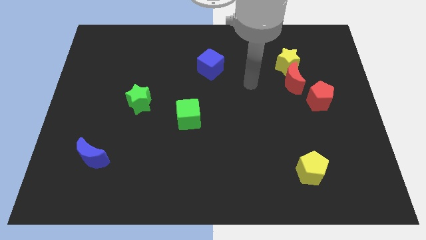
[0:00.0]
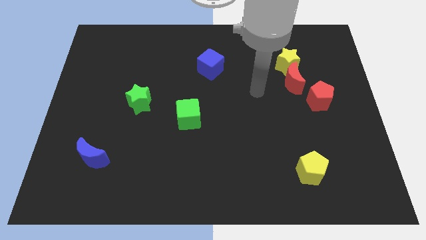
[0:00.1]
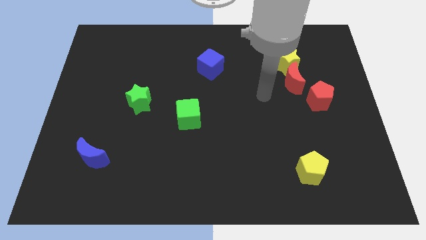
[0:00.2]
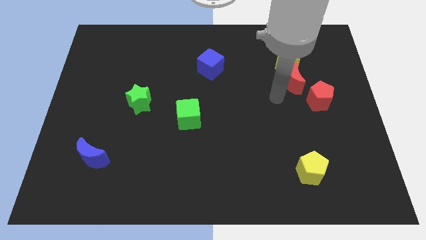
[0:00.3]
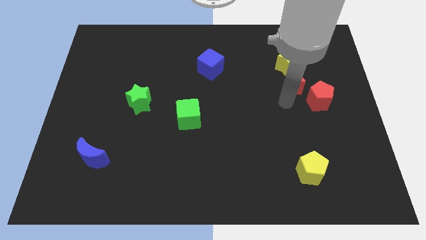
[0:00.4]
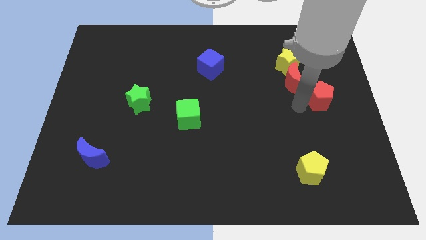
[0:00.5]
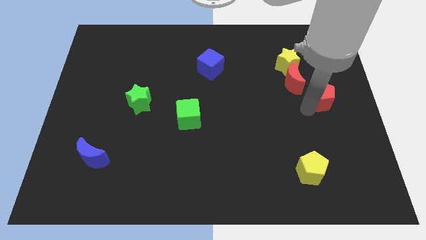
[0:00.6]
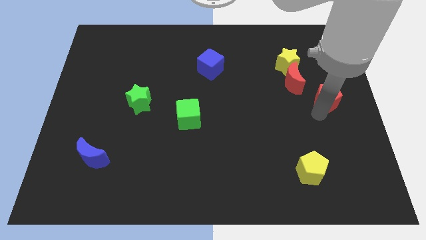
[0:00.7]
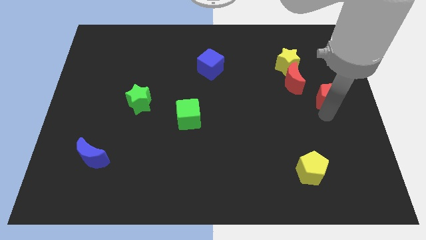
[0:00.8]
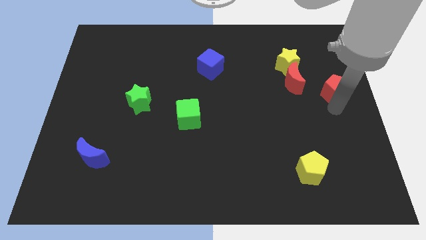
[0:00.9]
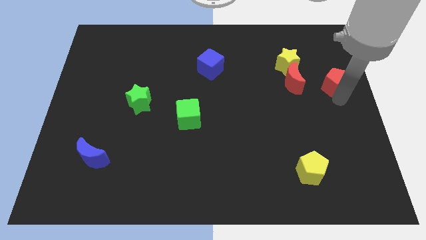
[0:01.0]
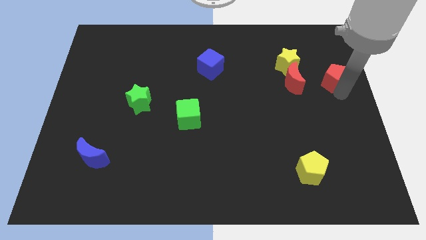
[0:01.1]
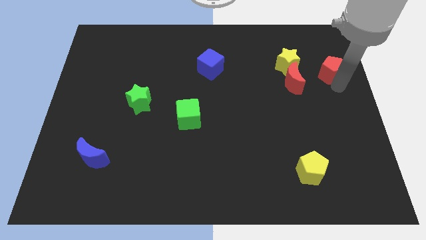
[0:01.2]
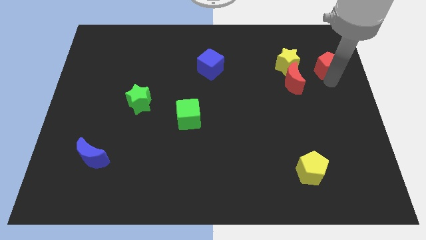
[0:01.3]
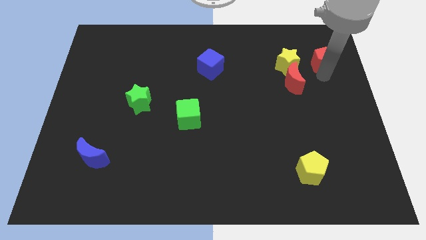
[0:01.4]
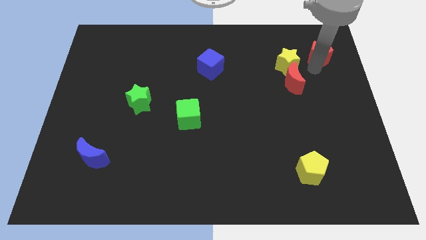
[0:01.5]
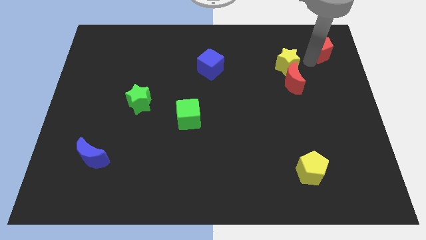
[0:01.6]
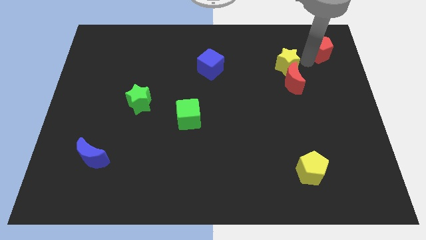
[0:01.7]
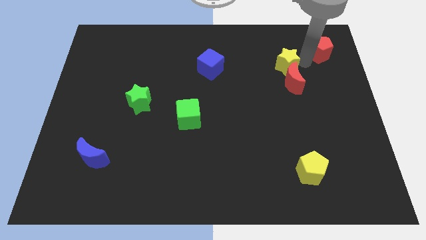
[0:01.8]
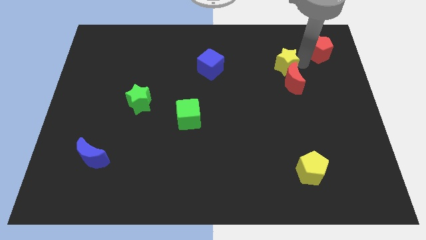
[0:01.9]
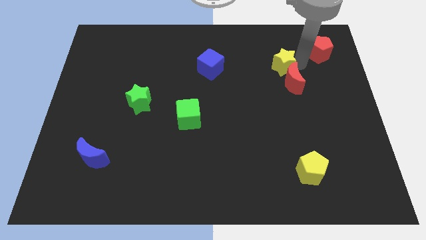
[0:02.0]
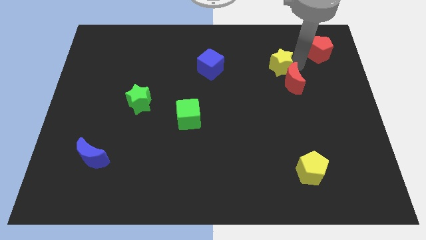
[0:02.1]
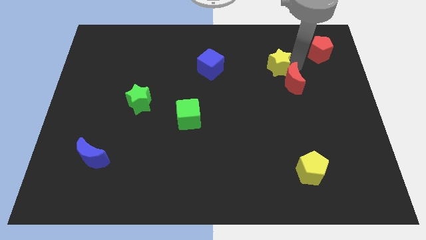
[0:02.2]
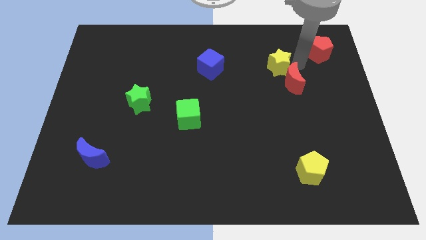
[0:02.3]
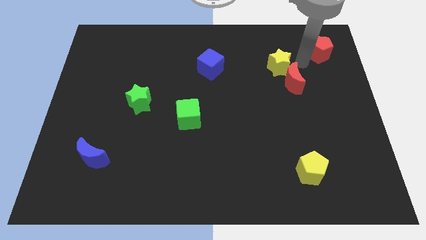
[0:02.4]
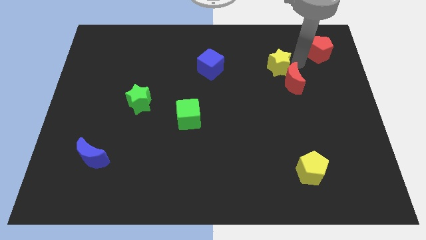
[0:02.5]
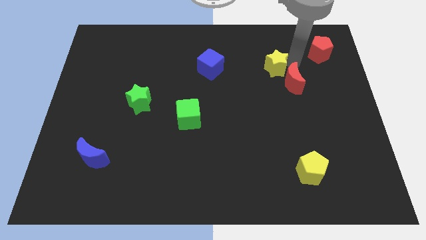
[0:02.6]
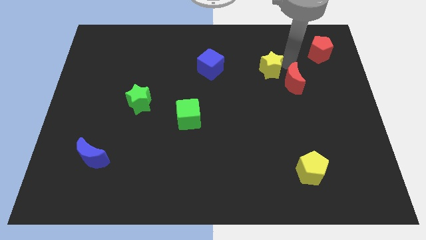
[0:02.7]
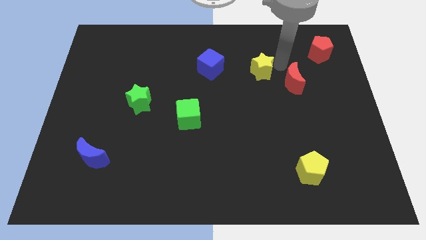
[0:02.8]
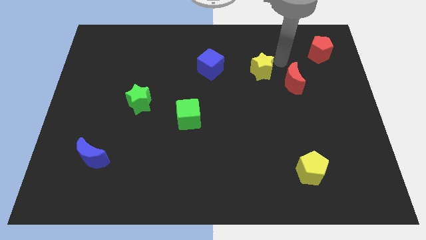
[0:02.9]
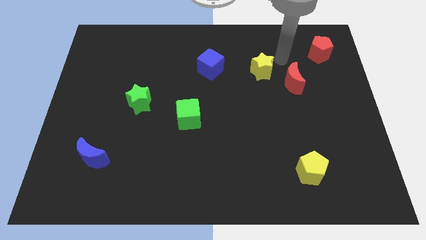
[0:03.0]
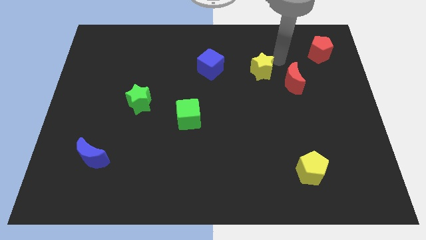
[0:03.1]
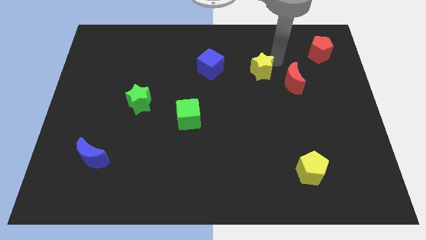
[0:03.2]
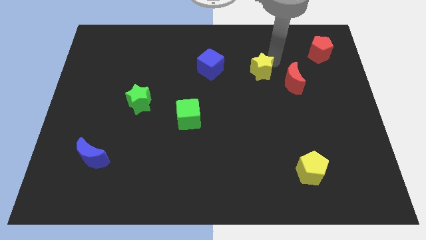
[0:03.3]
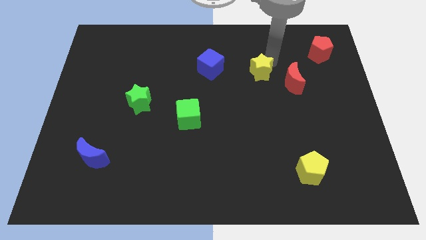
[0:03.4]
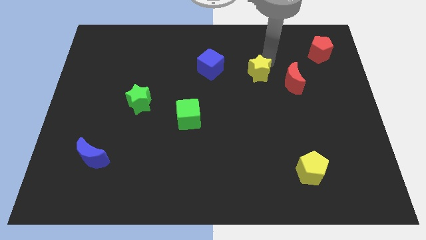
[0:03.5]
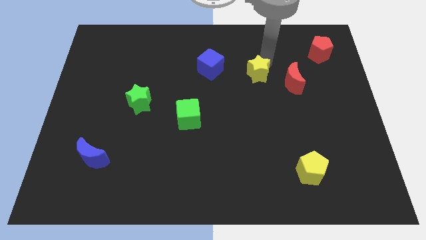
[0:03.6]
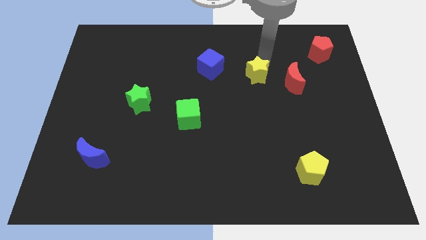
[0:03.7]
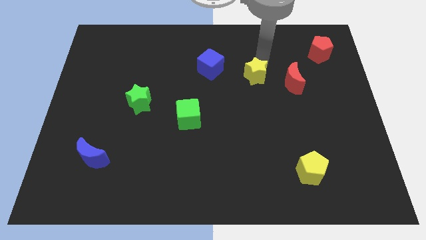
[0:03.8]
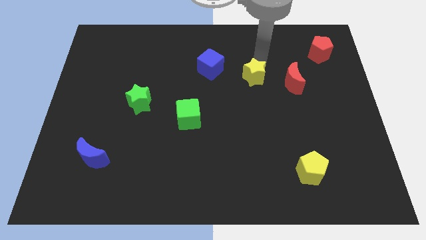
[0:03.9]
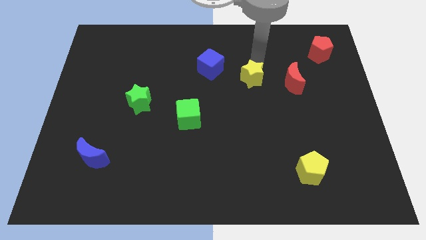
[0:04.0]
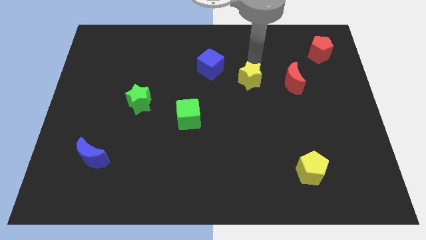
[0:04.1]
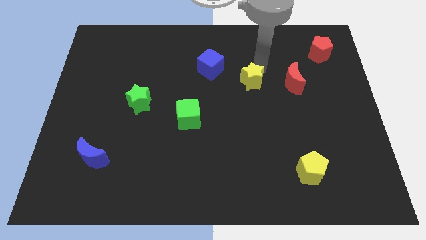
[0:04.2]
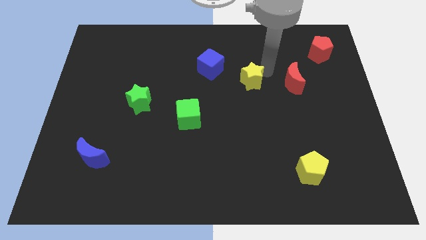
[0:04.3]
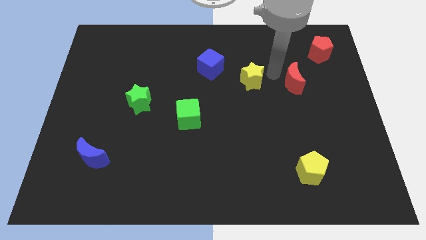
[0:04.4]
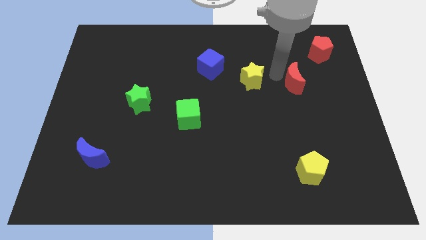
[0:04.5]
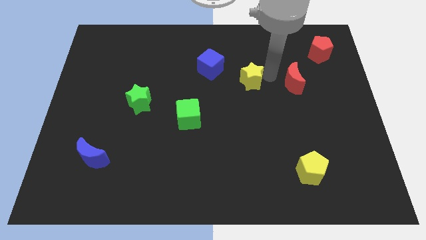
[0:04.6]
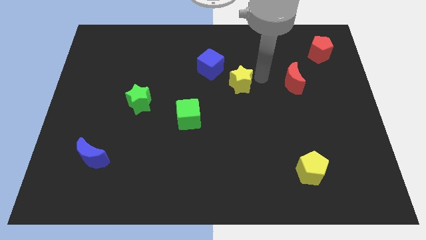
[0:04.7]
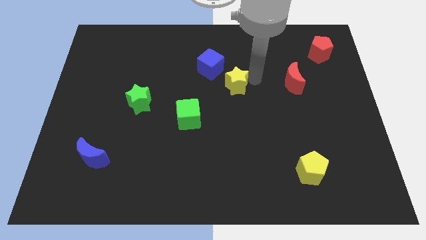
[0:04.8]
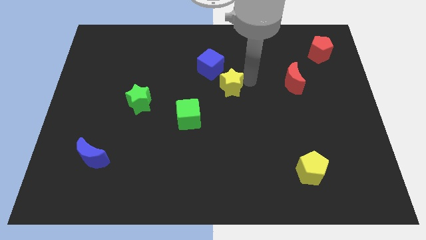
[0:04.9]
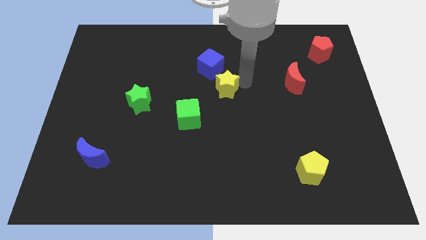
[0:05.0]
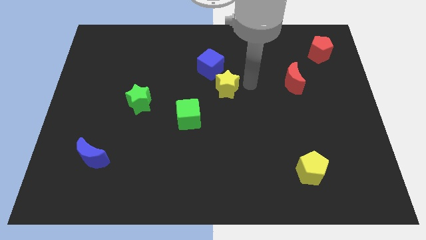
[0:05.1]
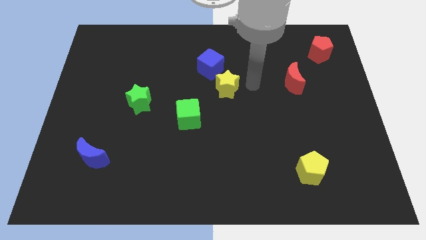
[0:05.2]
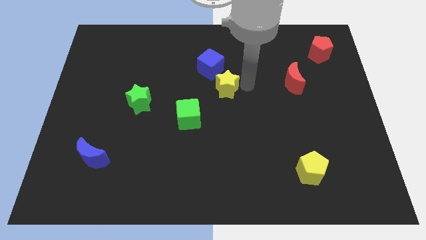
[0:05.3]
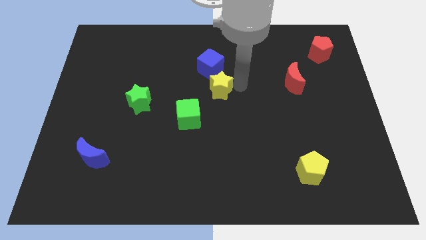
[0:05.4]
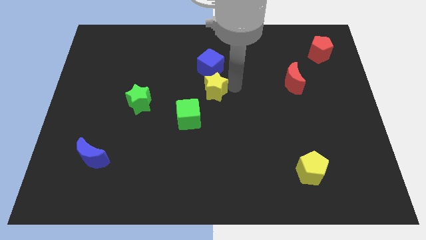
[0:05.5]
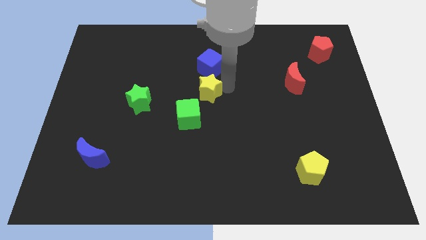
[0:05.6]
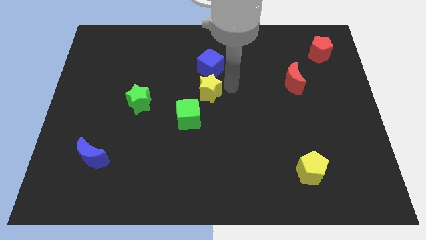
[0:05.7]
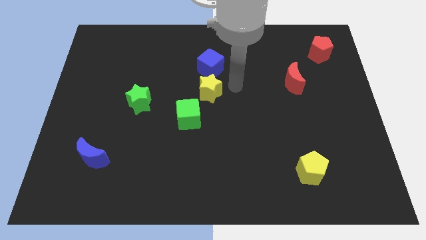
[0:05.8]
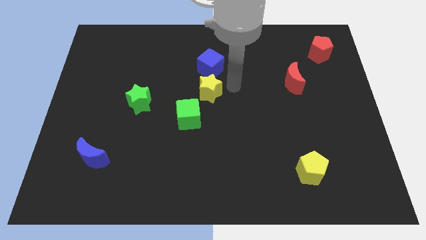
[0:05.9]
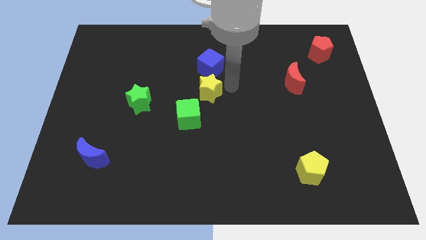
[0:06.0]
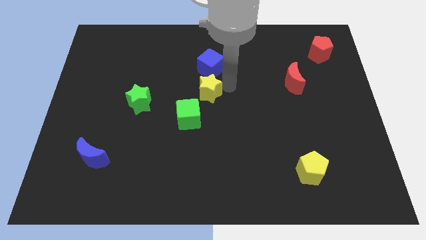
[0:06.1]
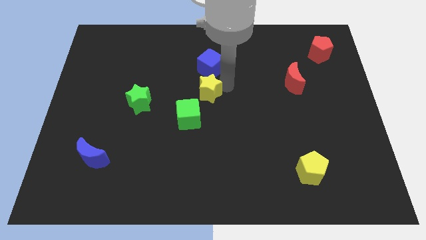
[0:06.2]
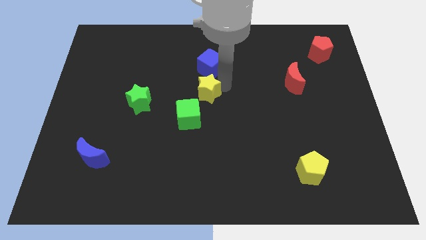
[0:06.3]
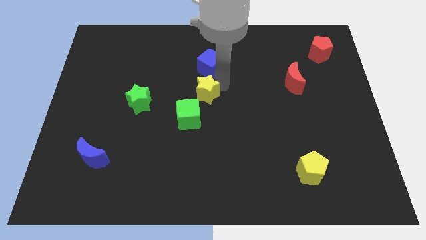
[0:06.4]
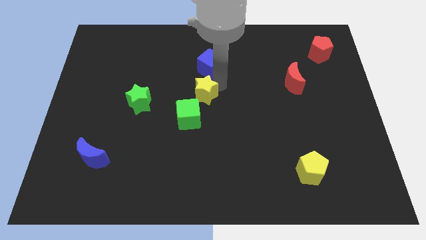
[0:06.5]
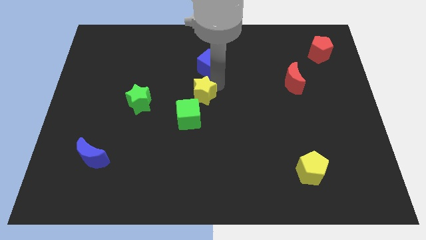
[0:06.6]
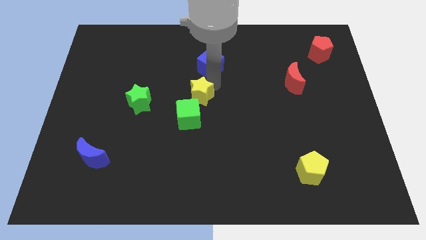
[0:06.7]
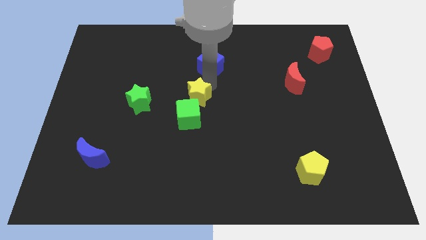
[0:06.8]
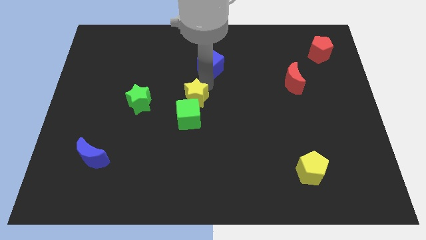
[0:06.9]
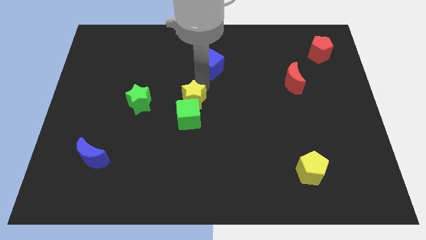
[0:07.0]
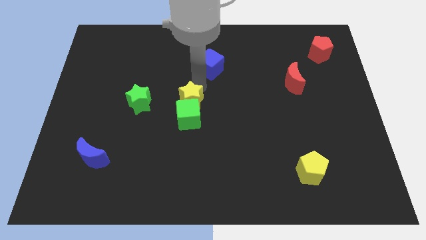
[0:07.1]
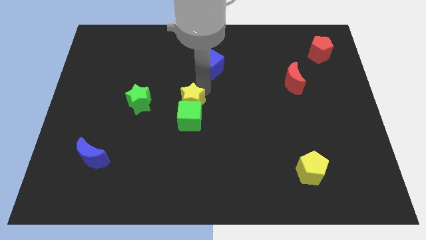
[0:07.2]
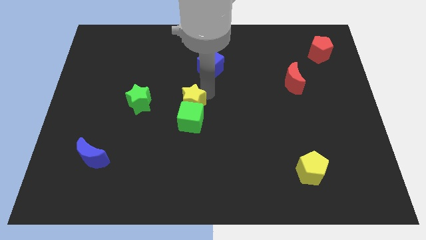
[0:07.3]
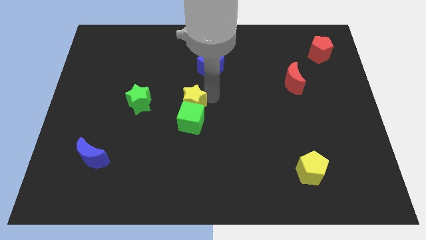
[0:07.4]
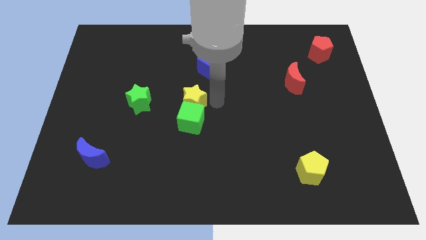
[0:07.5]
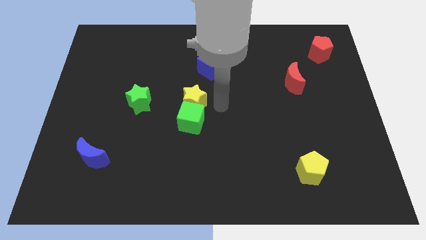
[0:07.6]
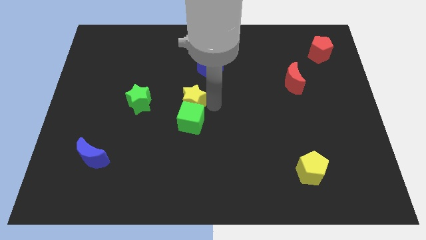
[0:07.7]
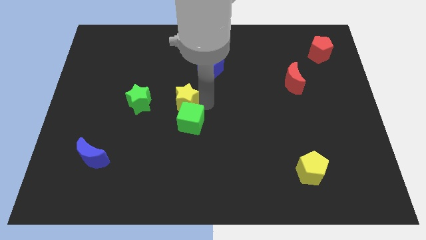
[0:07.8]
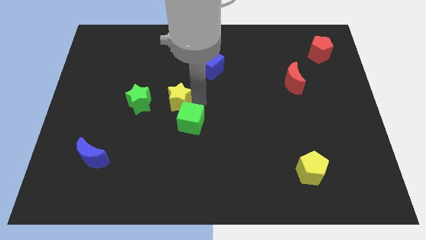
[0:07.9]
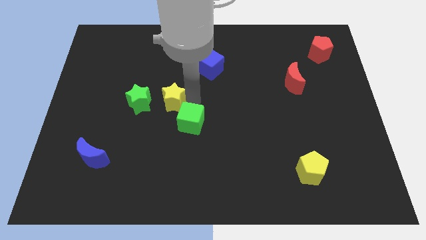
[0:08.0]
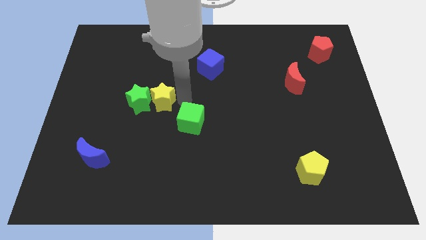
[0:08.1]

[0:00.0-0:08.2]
move the yellow star towards the green star
